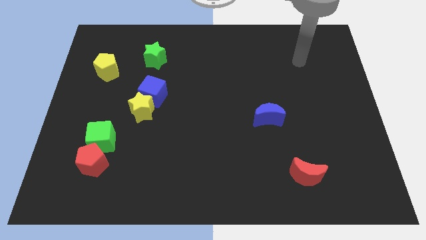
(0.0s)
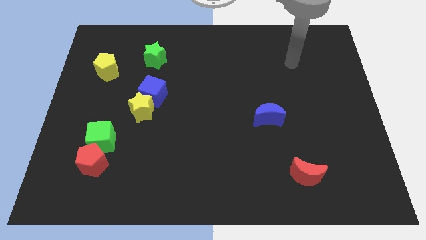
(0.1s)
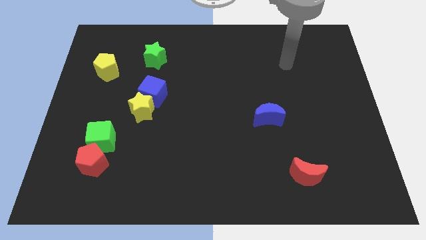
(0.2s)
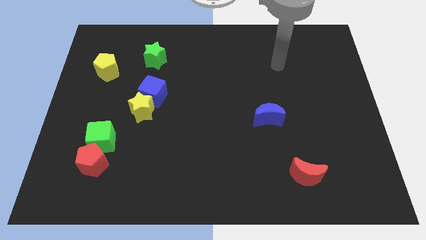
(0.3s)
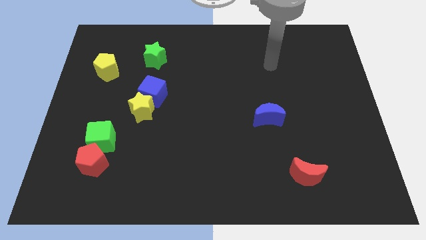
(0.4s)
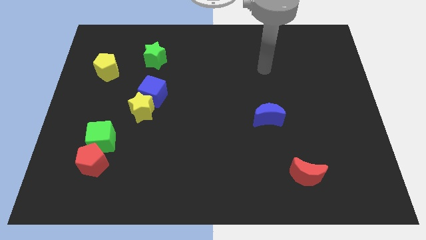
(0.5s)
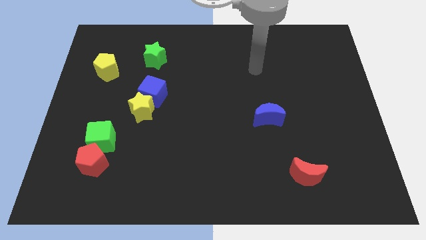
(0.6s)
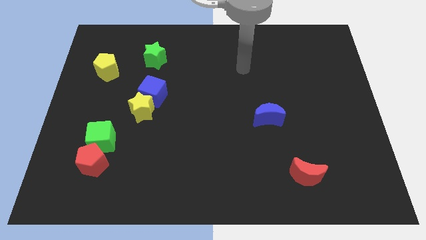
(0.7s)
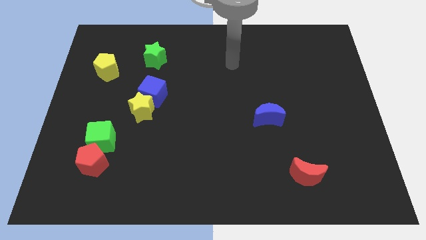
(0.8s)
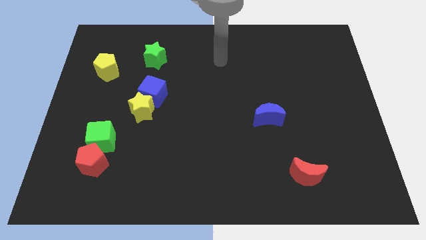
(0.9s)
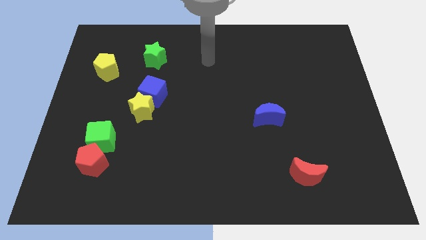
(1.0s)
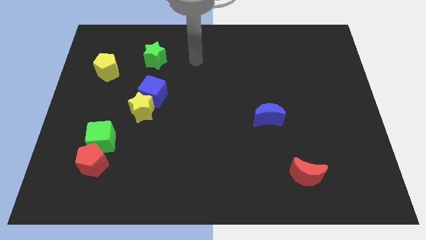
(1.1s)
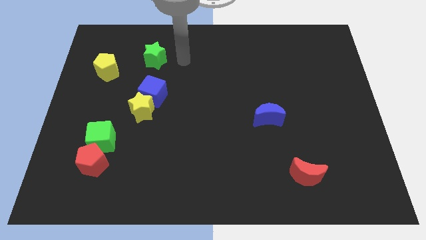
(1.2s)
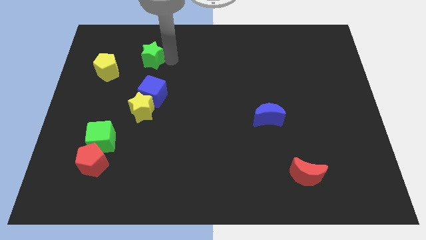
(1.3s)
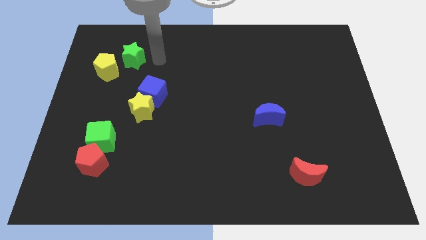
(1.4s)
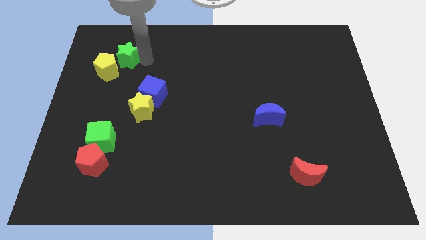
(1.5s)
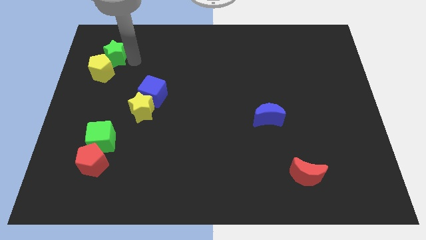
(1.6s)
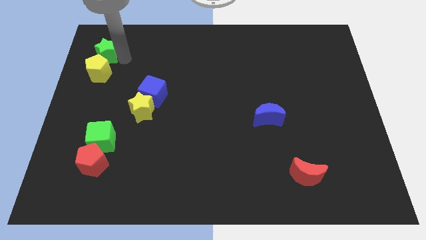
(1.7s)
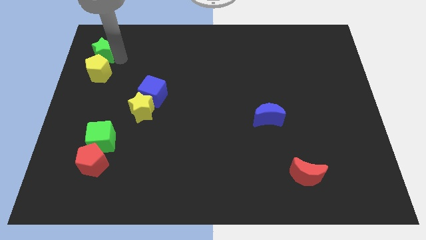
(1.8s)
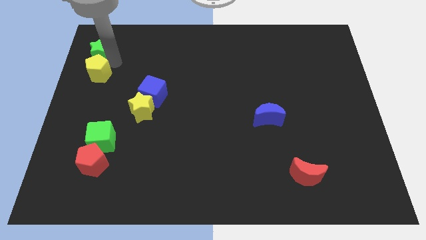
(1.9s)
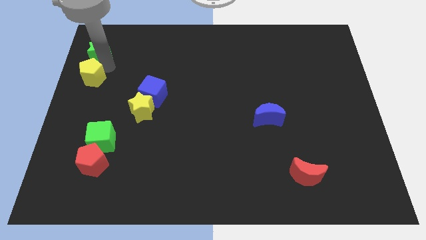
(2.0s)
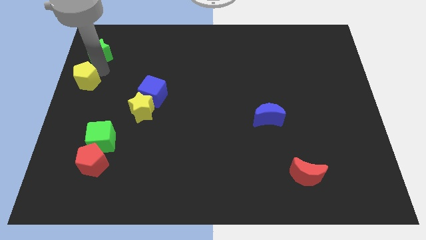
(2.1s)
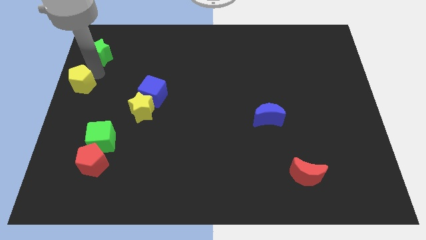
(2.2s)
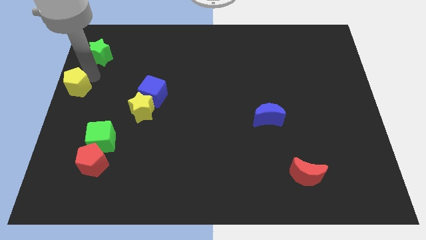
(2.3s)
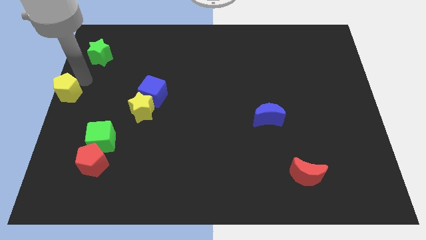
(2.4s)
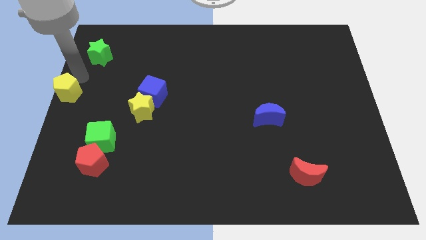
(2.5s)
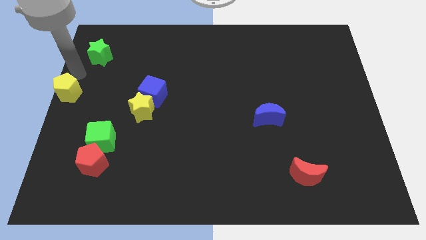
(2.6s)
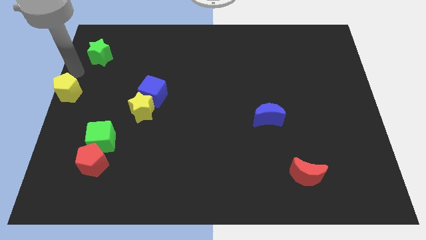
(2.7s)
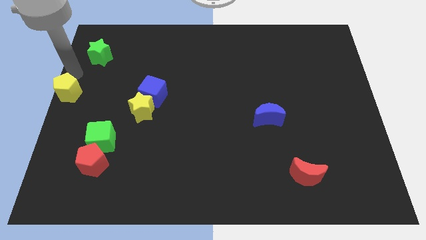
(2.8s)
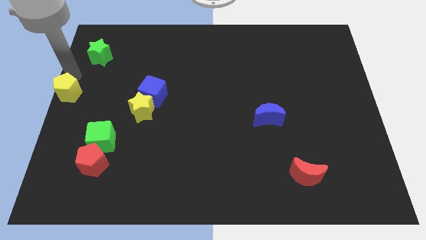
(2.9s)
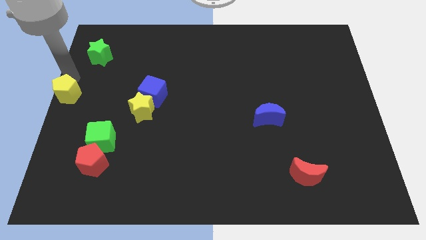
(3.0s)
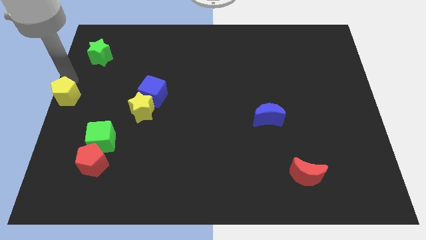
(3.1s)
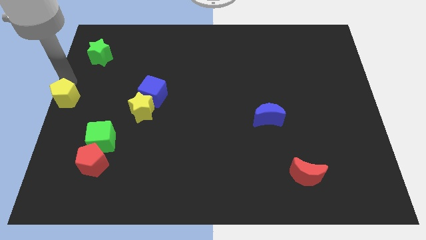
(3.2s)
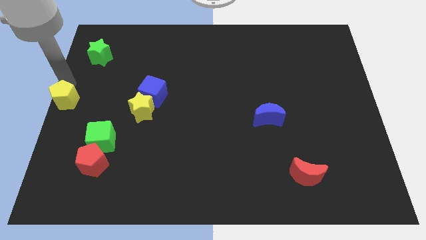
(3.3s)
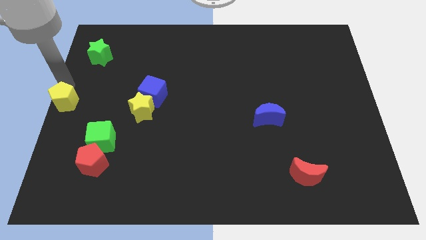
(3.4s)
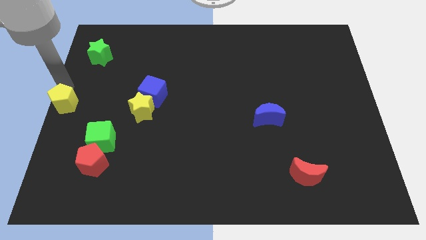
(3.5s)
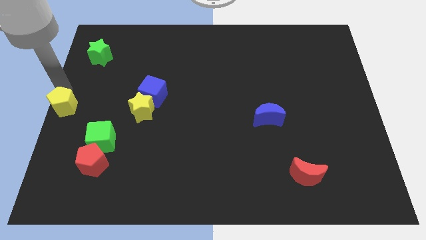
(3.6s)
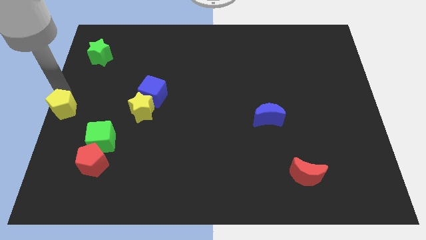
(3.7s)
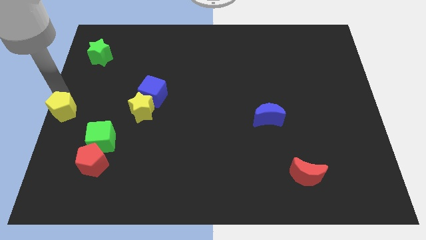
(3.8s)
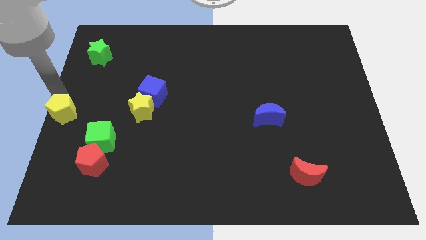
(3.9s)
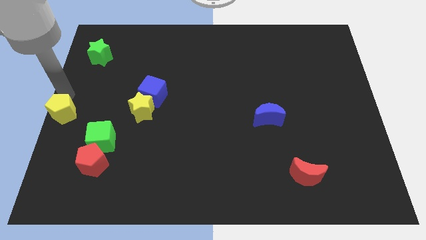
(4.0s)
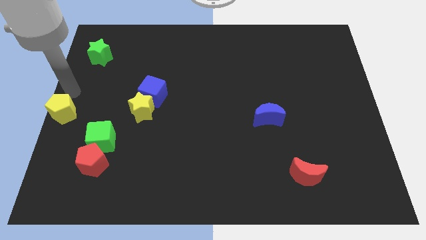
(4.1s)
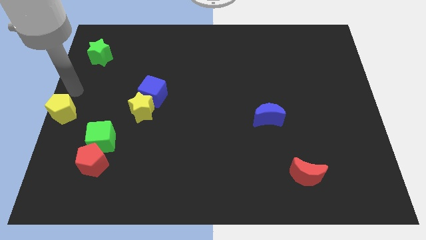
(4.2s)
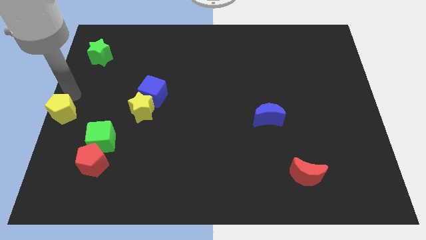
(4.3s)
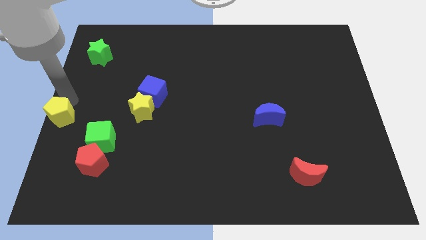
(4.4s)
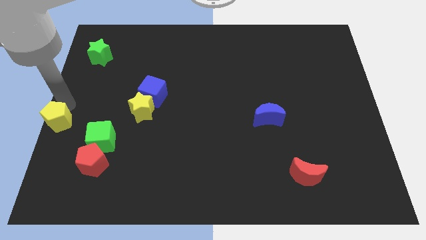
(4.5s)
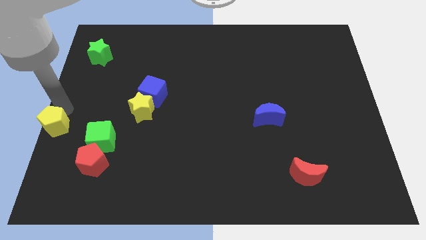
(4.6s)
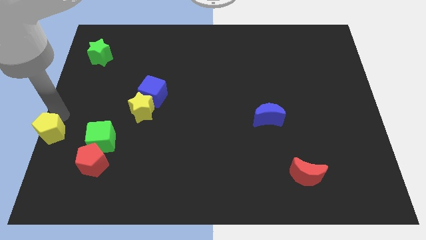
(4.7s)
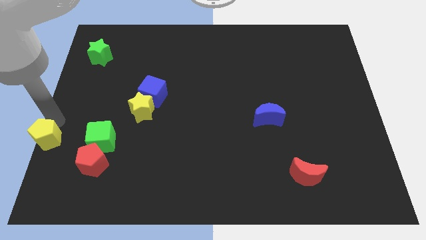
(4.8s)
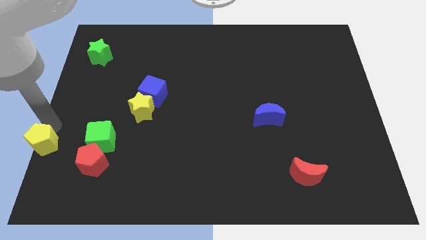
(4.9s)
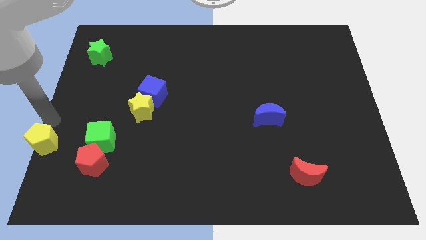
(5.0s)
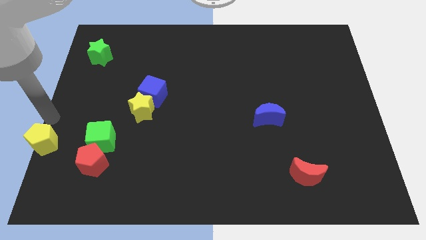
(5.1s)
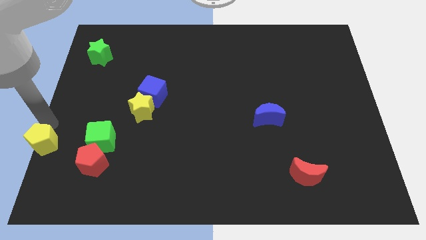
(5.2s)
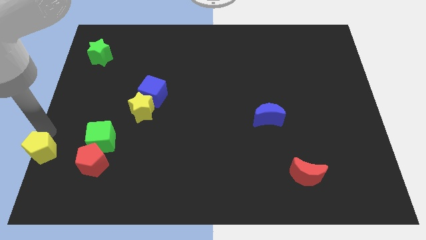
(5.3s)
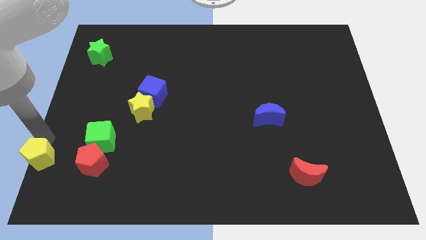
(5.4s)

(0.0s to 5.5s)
push the yellow pentagon to the bottom left corner

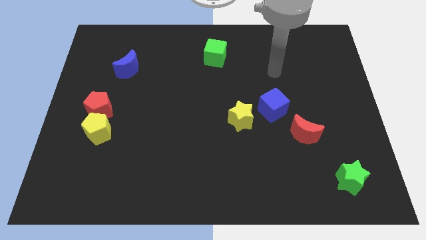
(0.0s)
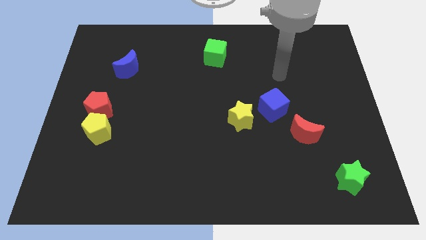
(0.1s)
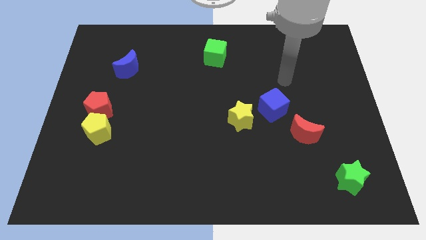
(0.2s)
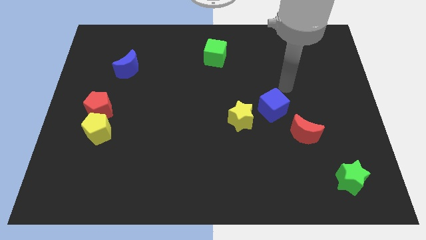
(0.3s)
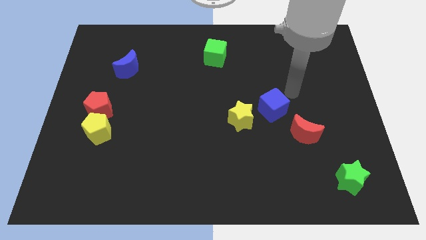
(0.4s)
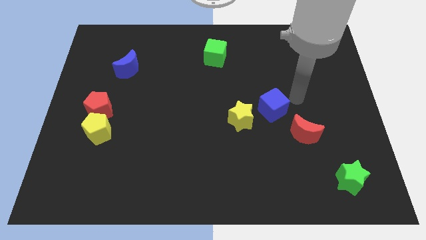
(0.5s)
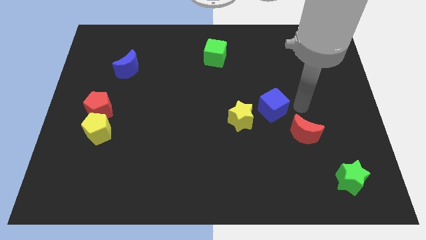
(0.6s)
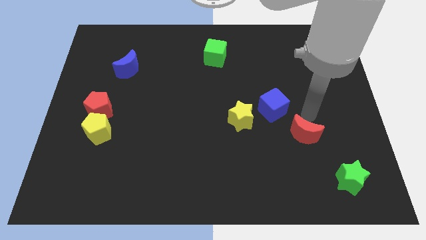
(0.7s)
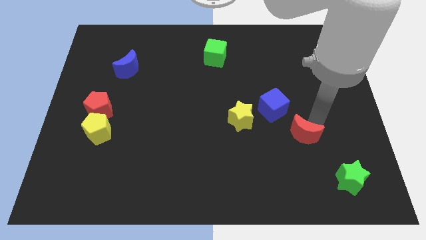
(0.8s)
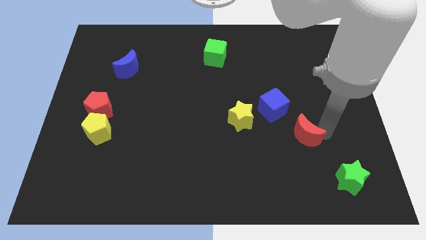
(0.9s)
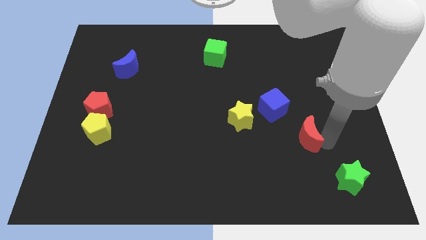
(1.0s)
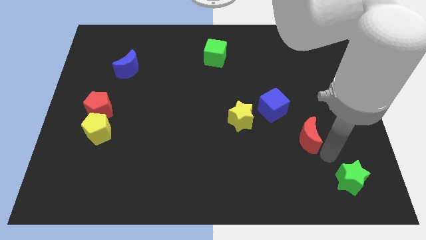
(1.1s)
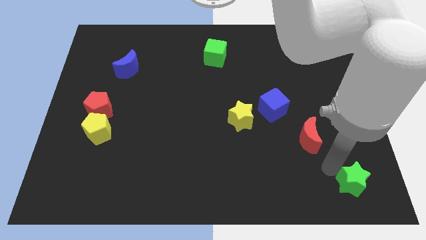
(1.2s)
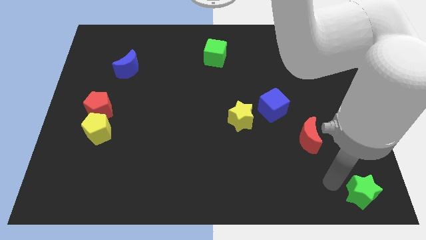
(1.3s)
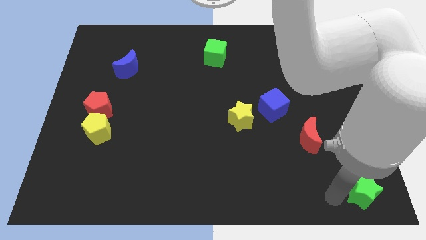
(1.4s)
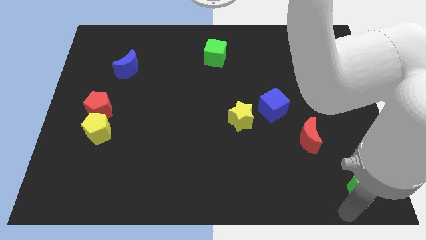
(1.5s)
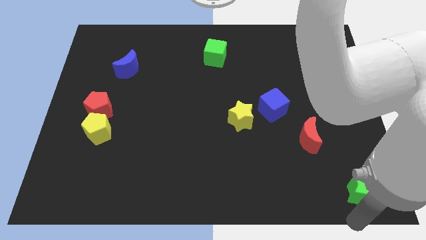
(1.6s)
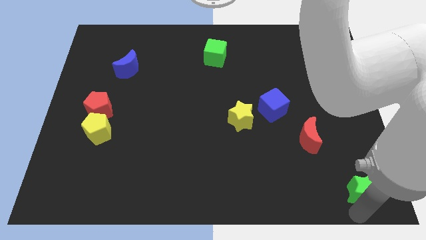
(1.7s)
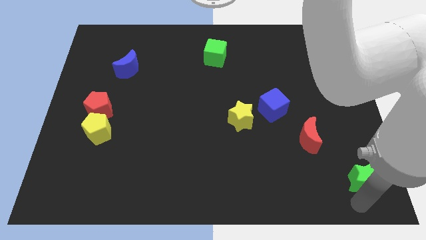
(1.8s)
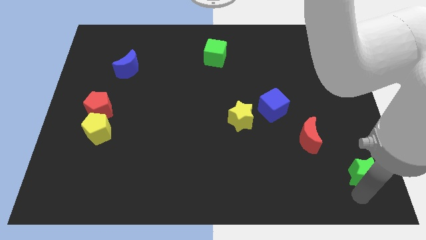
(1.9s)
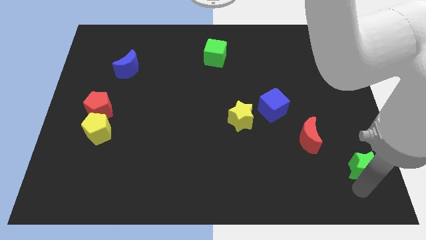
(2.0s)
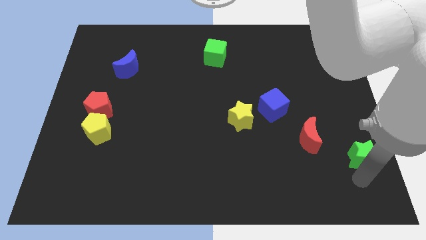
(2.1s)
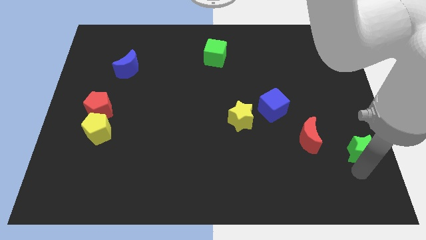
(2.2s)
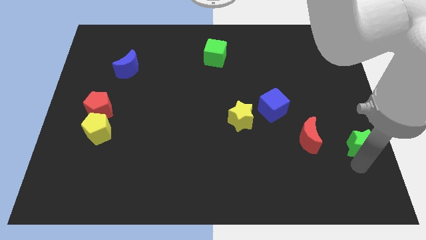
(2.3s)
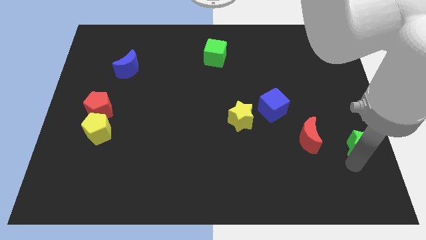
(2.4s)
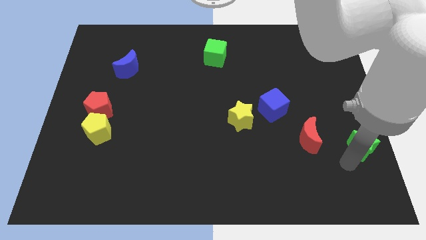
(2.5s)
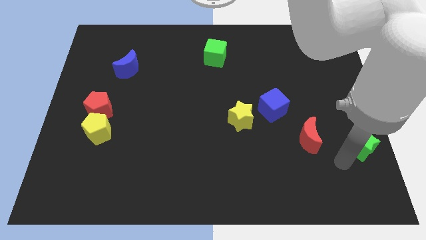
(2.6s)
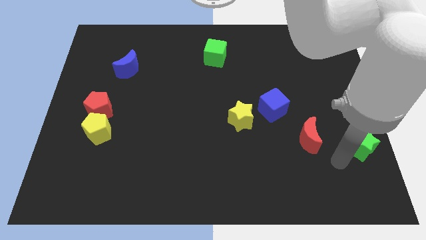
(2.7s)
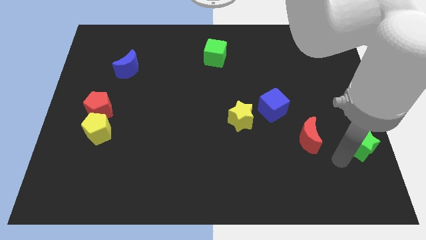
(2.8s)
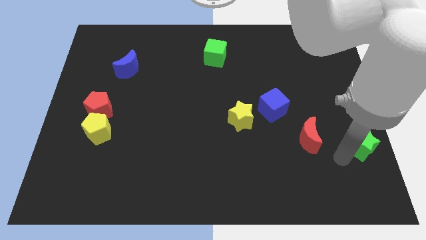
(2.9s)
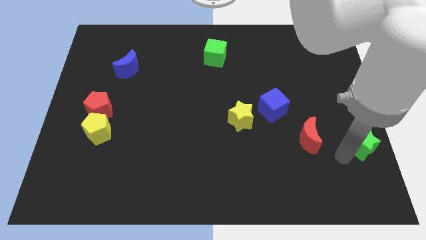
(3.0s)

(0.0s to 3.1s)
put the green star to the center right
